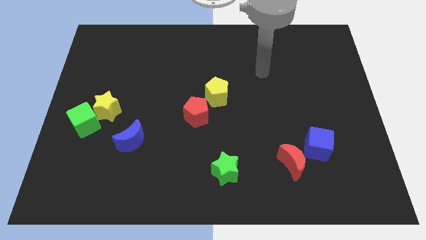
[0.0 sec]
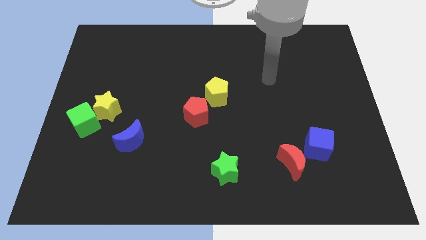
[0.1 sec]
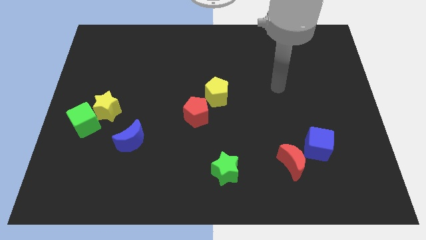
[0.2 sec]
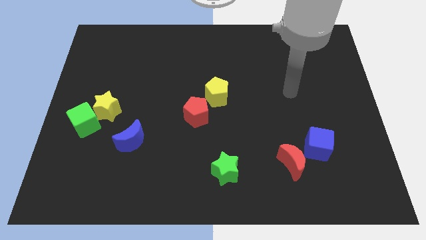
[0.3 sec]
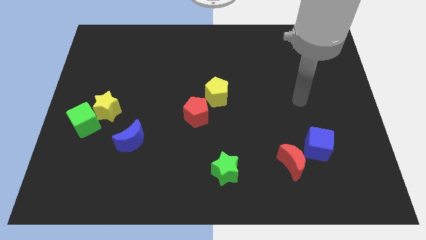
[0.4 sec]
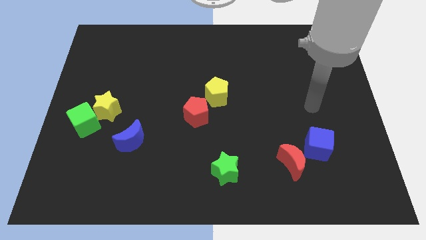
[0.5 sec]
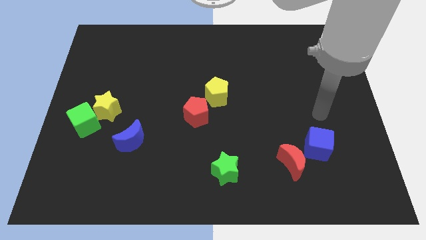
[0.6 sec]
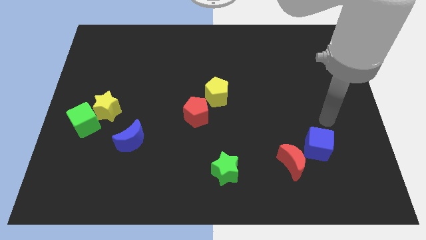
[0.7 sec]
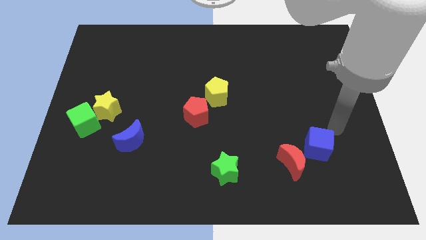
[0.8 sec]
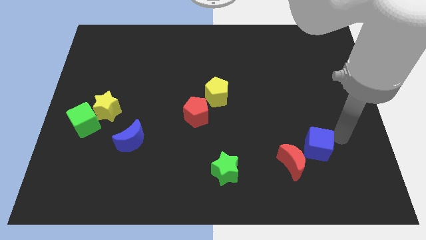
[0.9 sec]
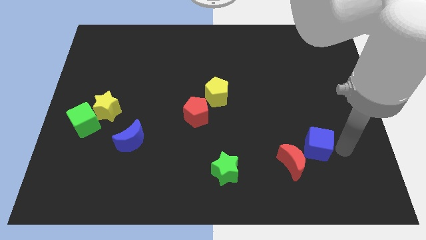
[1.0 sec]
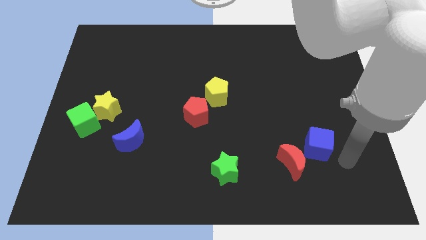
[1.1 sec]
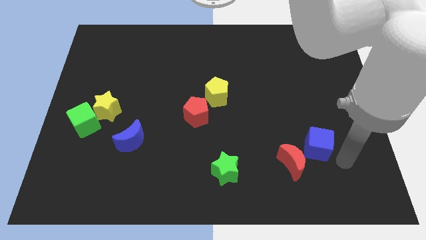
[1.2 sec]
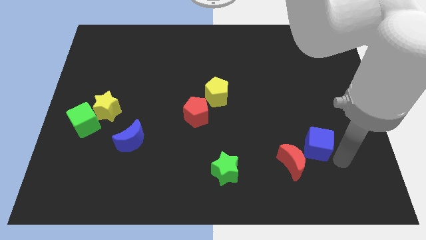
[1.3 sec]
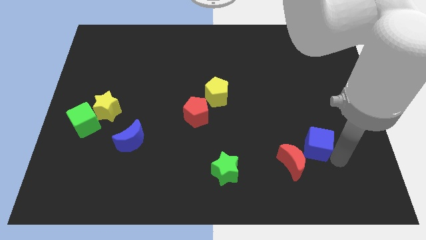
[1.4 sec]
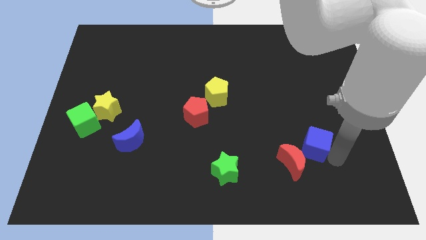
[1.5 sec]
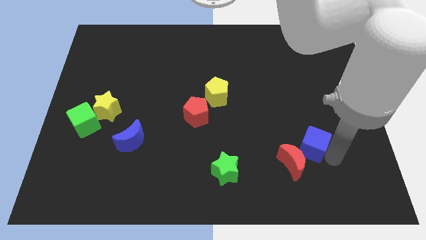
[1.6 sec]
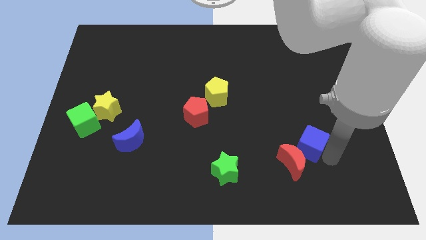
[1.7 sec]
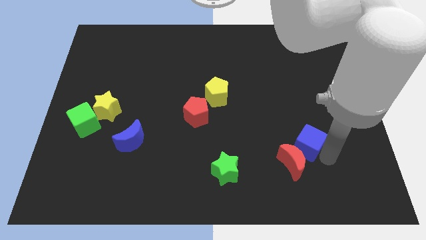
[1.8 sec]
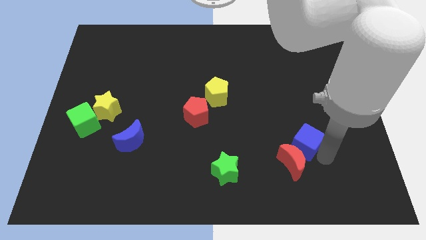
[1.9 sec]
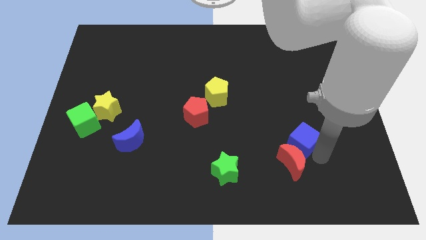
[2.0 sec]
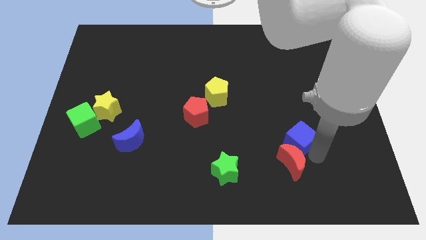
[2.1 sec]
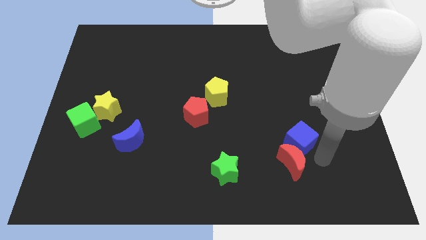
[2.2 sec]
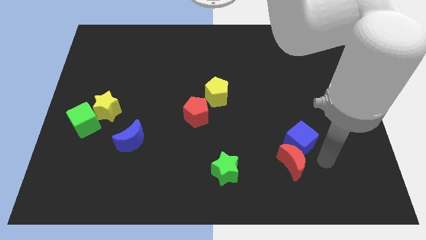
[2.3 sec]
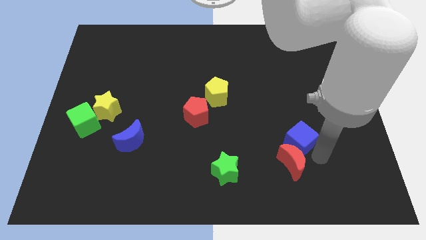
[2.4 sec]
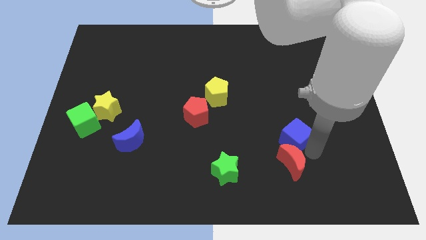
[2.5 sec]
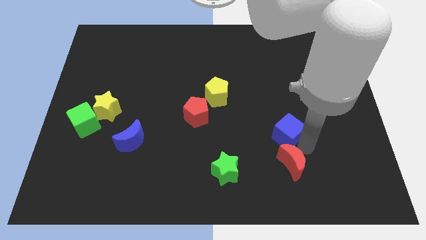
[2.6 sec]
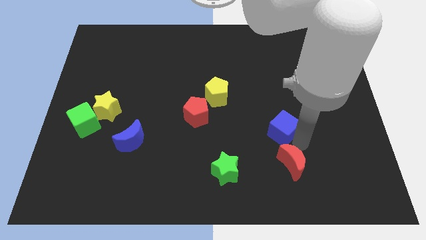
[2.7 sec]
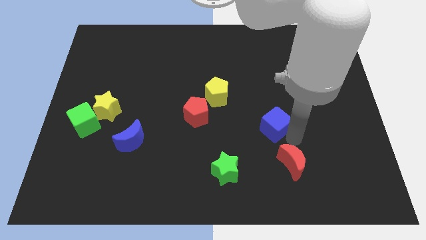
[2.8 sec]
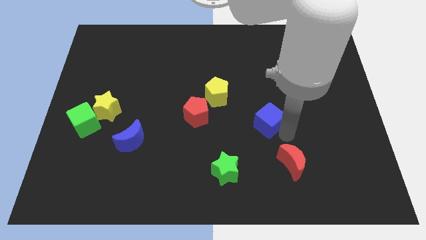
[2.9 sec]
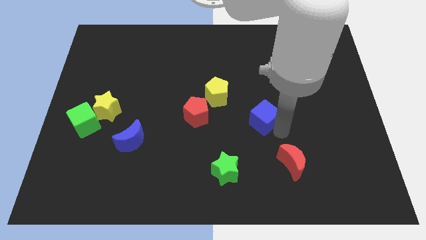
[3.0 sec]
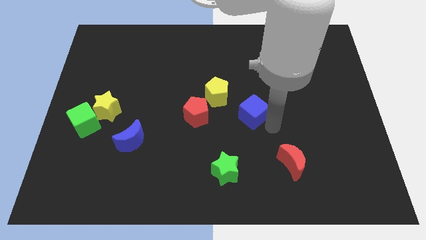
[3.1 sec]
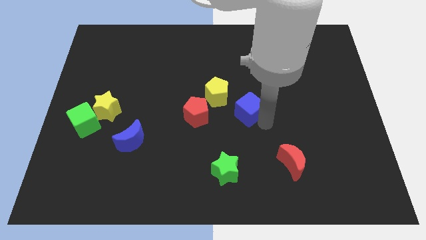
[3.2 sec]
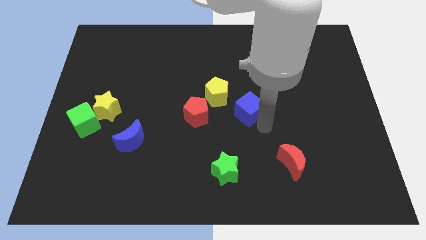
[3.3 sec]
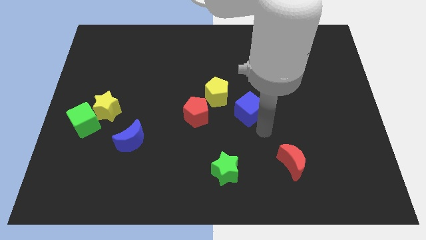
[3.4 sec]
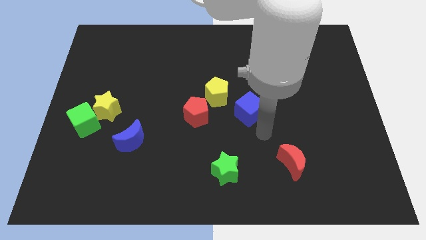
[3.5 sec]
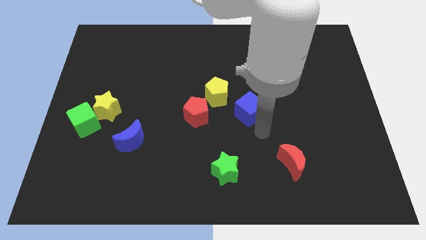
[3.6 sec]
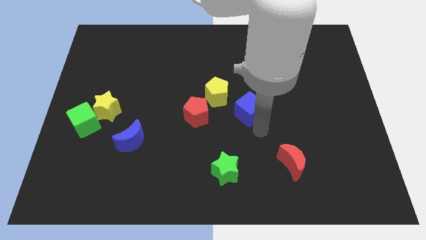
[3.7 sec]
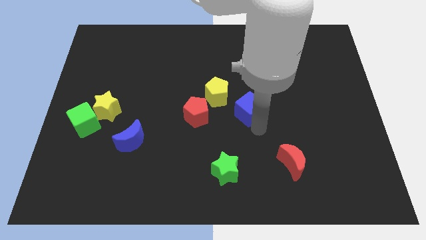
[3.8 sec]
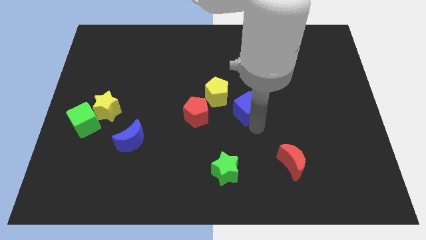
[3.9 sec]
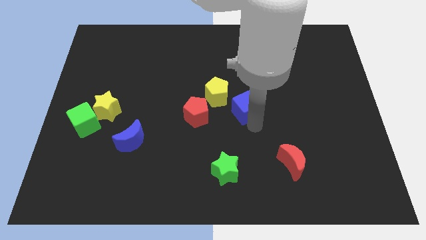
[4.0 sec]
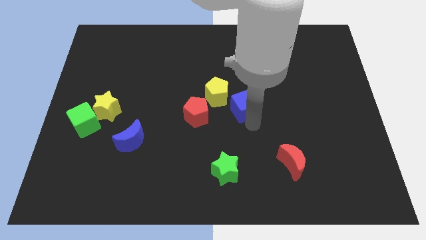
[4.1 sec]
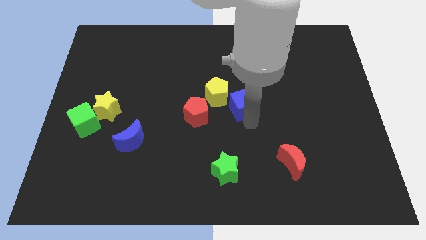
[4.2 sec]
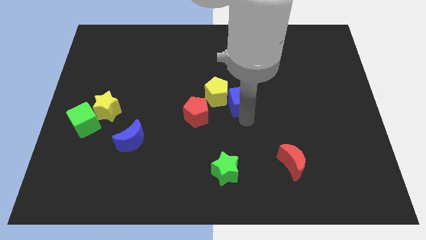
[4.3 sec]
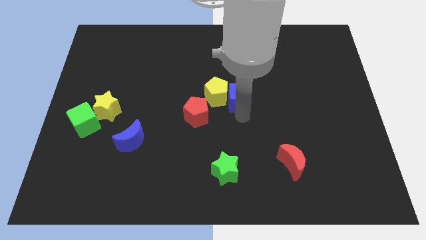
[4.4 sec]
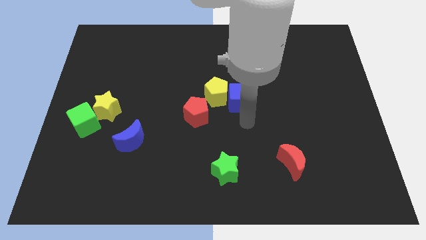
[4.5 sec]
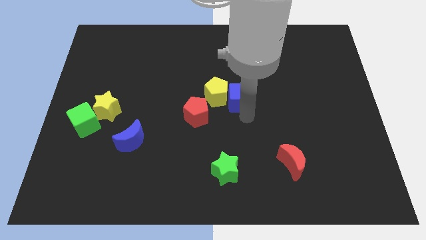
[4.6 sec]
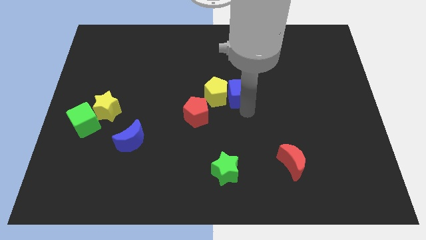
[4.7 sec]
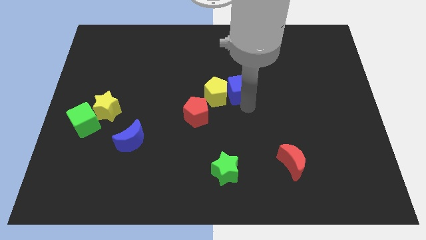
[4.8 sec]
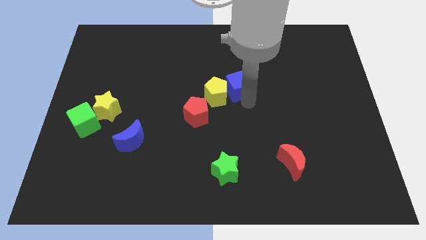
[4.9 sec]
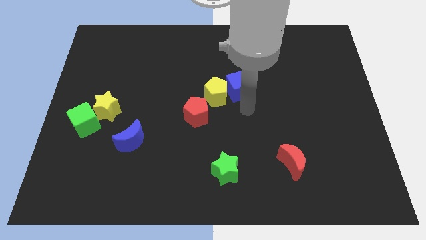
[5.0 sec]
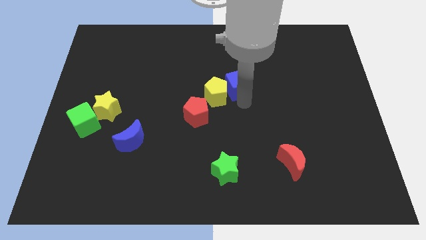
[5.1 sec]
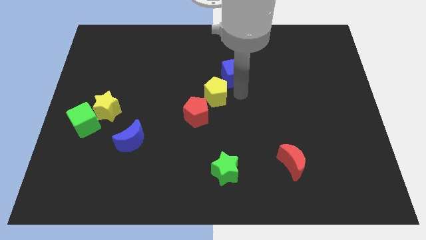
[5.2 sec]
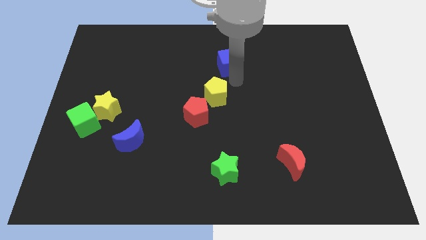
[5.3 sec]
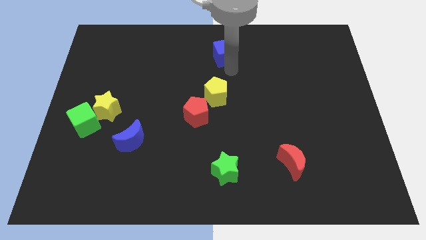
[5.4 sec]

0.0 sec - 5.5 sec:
push the blue cube to the towards your base

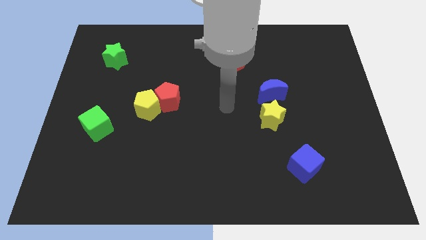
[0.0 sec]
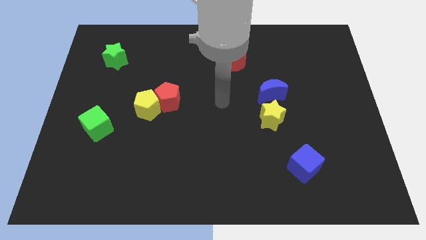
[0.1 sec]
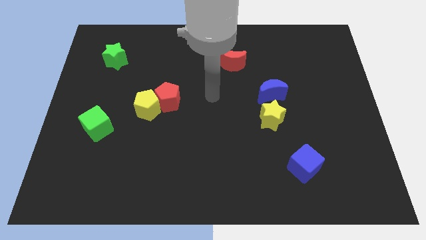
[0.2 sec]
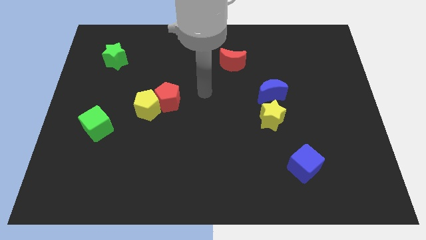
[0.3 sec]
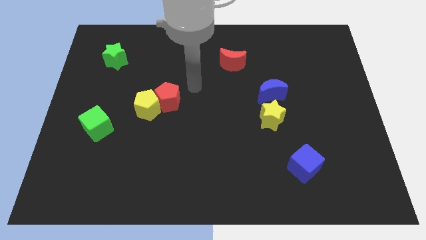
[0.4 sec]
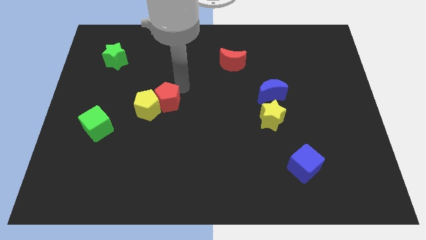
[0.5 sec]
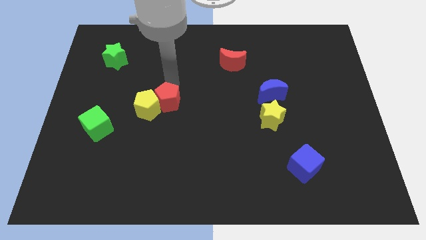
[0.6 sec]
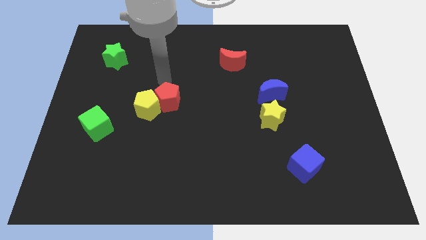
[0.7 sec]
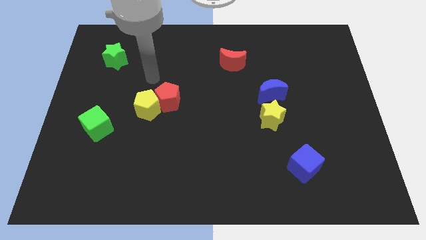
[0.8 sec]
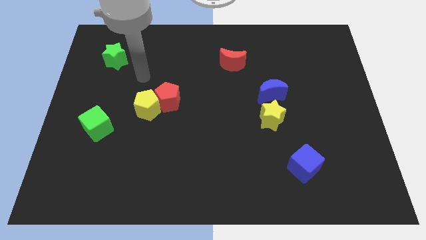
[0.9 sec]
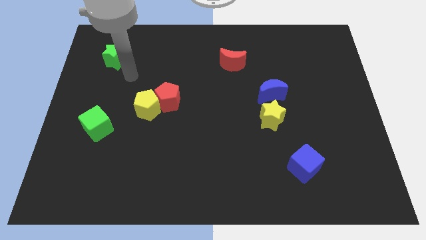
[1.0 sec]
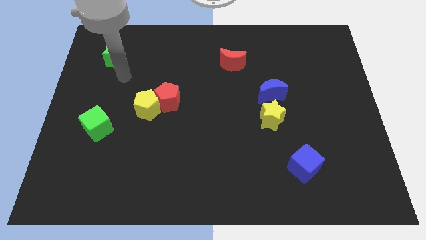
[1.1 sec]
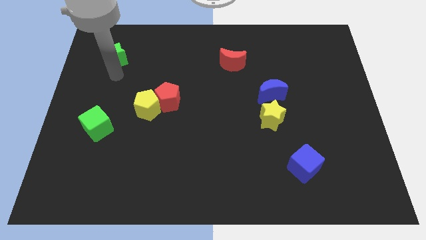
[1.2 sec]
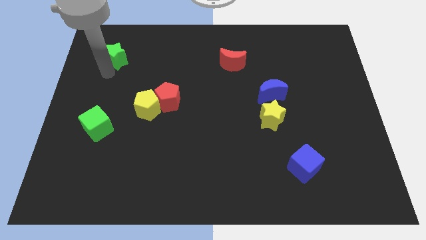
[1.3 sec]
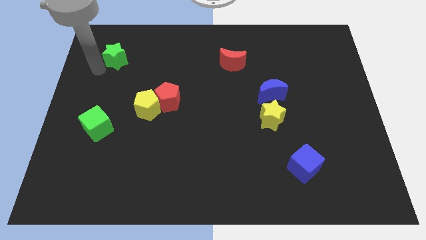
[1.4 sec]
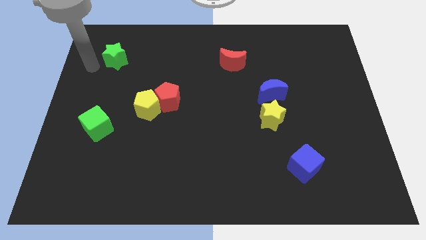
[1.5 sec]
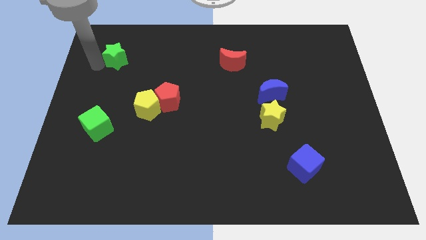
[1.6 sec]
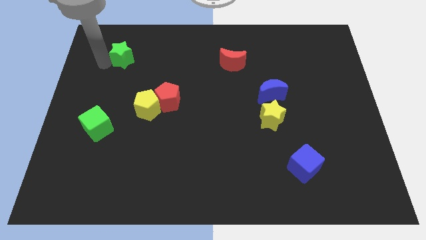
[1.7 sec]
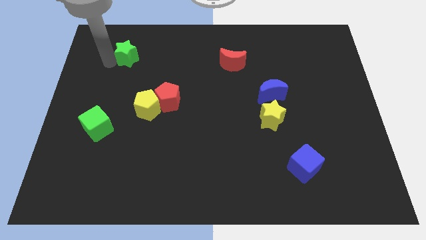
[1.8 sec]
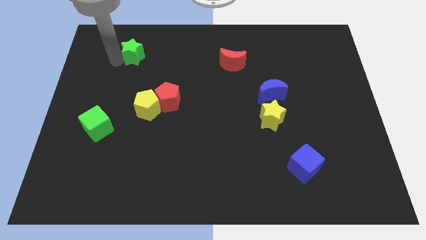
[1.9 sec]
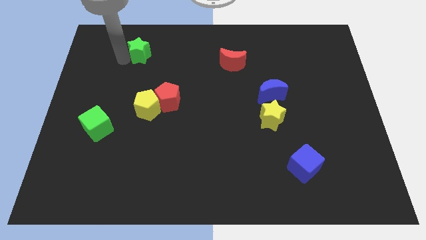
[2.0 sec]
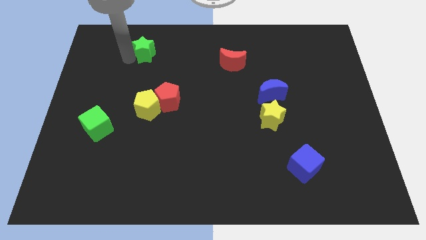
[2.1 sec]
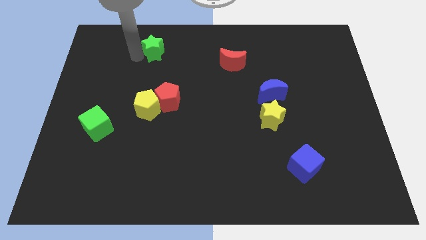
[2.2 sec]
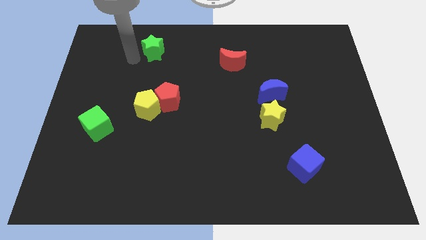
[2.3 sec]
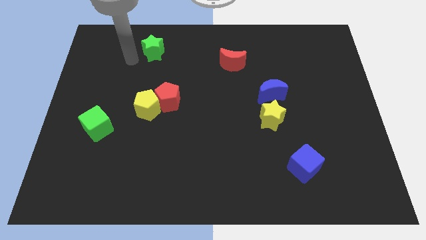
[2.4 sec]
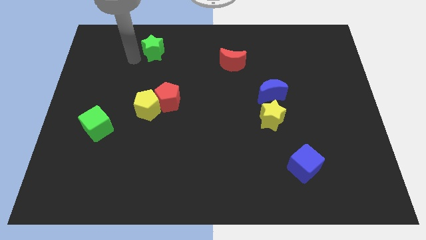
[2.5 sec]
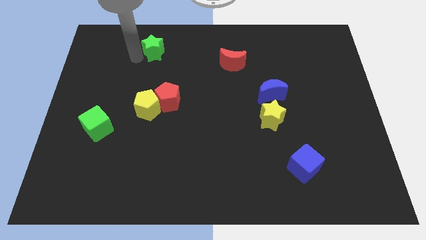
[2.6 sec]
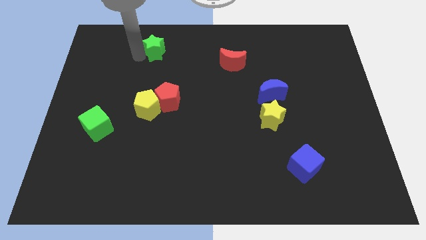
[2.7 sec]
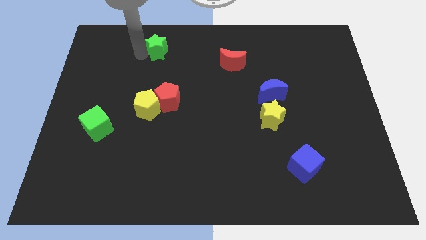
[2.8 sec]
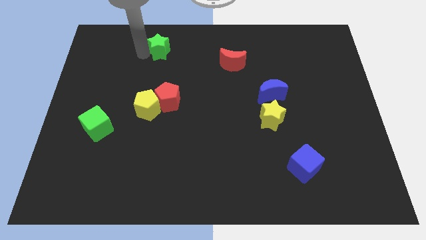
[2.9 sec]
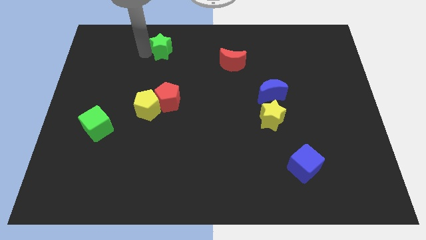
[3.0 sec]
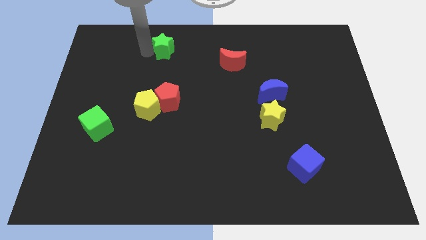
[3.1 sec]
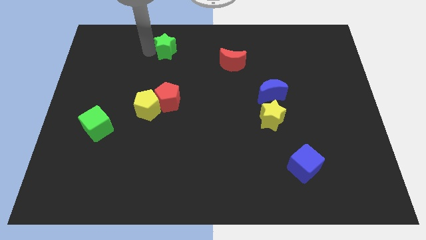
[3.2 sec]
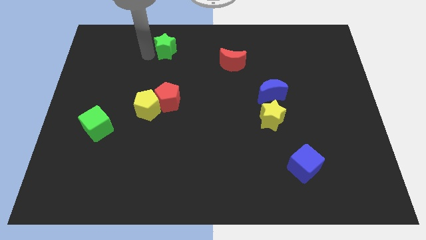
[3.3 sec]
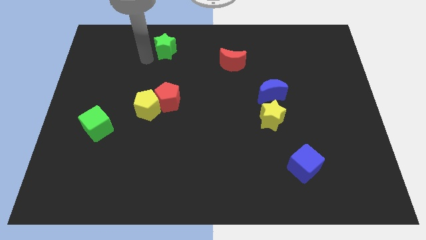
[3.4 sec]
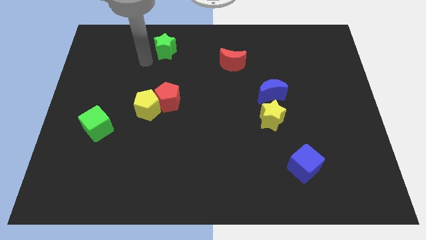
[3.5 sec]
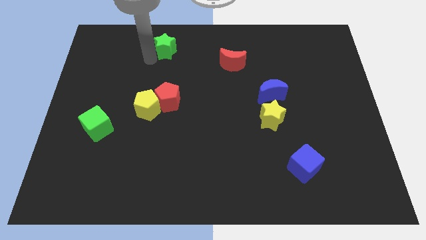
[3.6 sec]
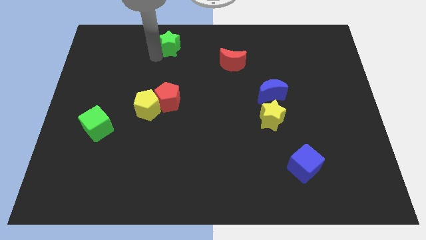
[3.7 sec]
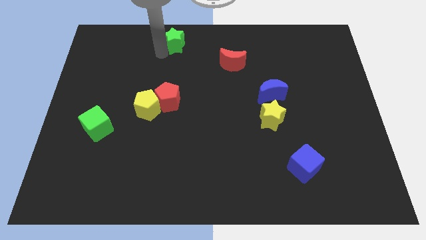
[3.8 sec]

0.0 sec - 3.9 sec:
put the green star to the top side
